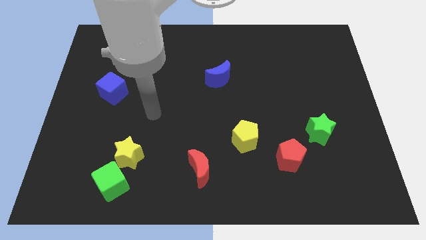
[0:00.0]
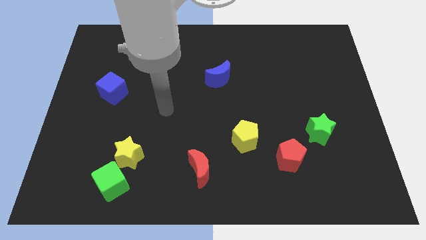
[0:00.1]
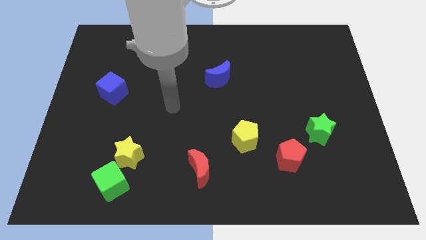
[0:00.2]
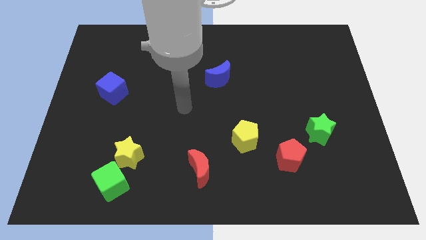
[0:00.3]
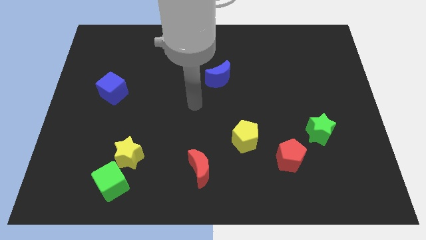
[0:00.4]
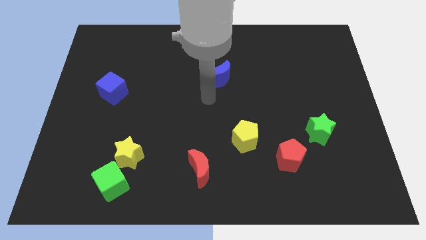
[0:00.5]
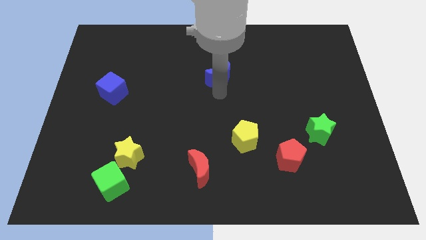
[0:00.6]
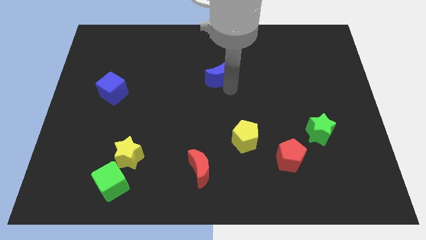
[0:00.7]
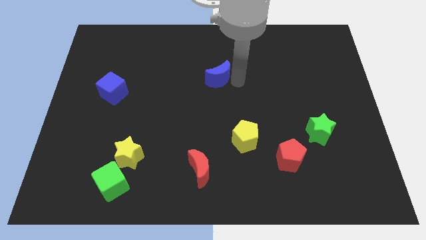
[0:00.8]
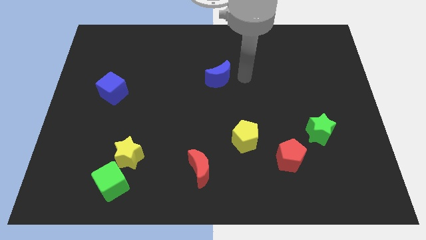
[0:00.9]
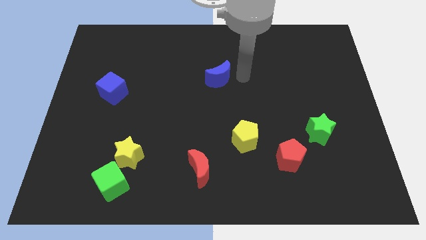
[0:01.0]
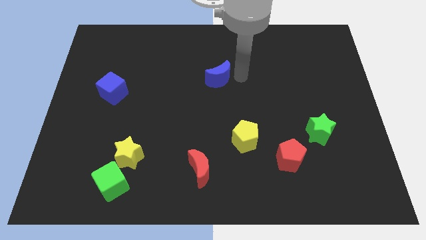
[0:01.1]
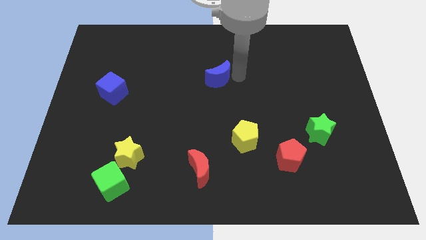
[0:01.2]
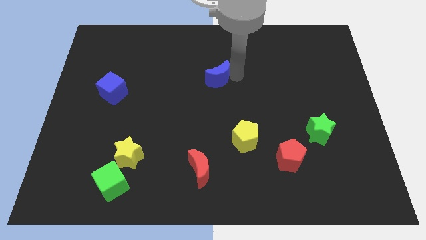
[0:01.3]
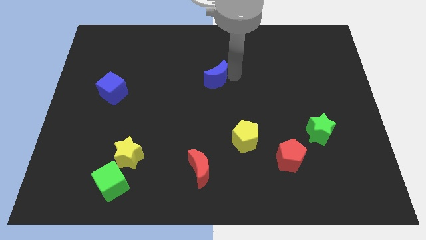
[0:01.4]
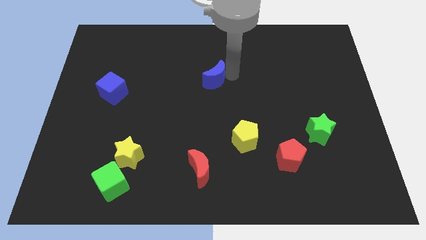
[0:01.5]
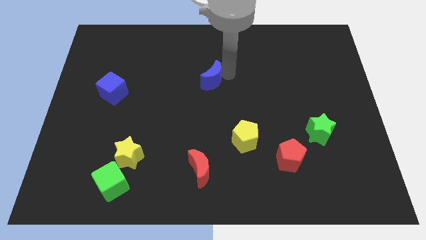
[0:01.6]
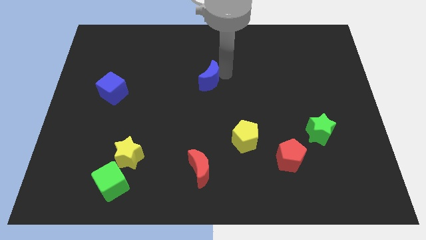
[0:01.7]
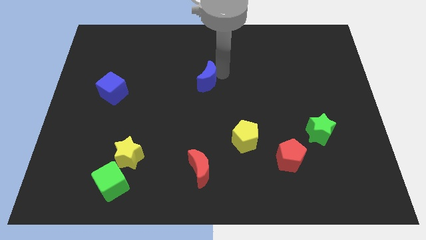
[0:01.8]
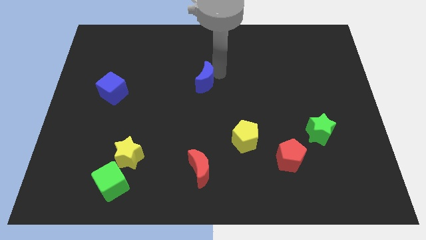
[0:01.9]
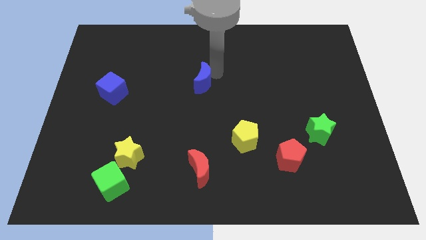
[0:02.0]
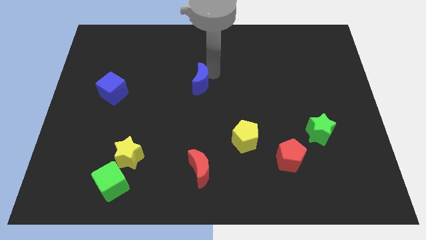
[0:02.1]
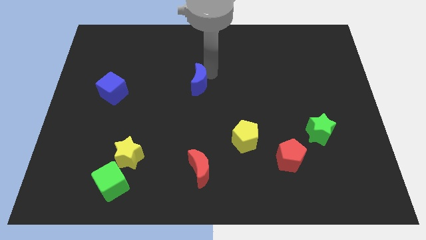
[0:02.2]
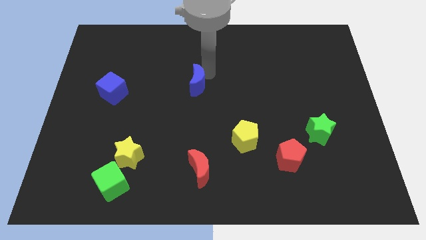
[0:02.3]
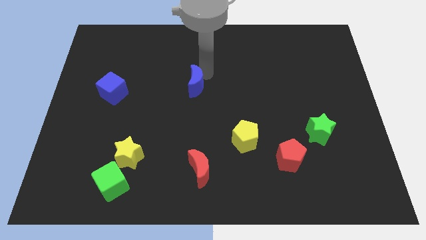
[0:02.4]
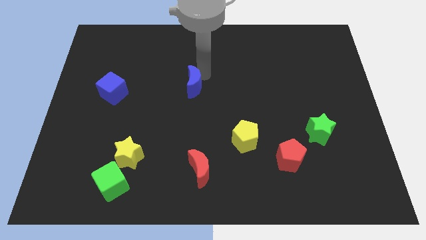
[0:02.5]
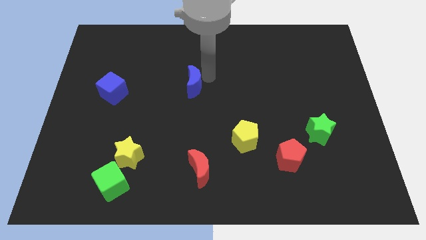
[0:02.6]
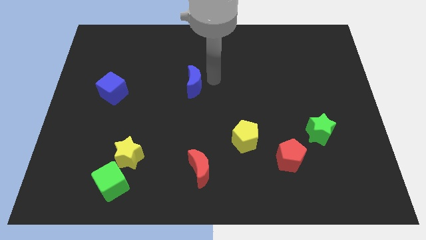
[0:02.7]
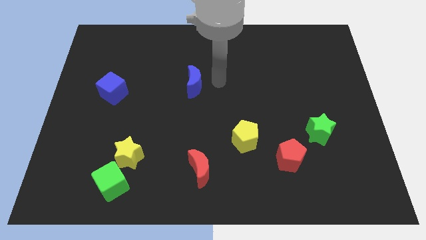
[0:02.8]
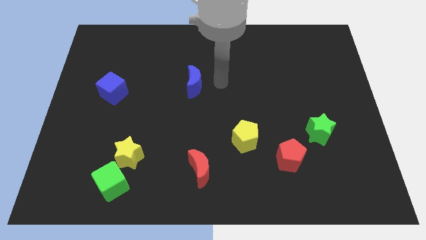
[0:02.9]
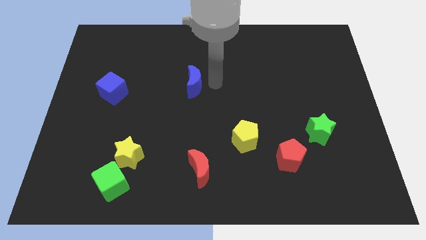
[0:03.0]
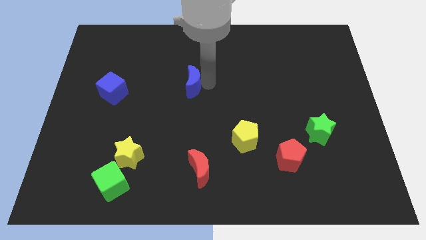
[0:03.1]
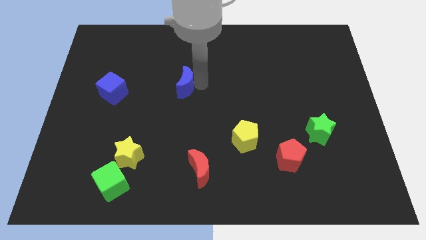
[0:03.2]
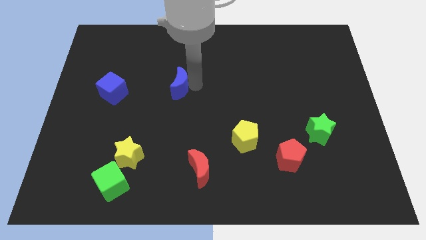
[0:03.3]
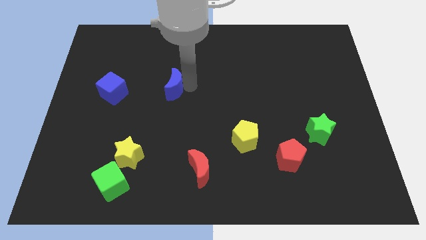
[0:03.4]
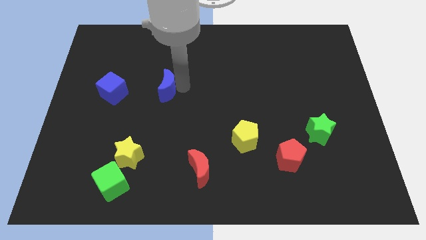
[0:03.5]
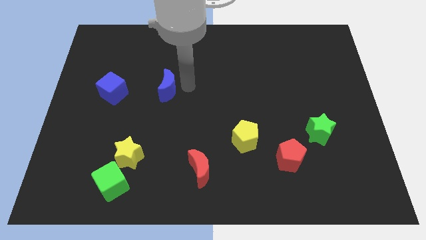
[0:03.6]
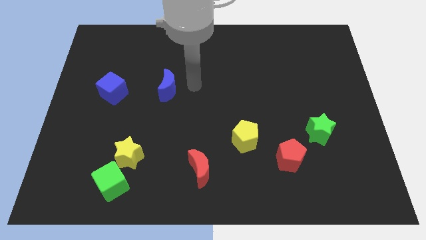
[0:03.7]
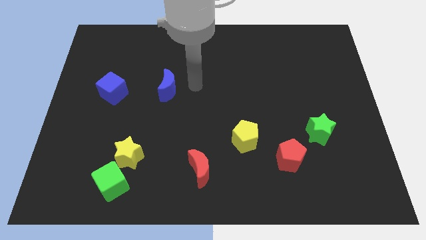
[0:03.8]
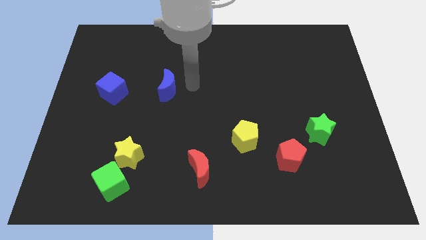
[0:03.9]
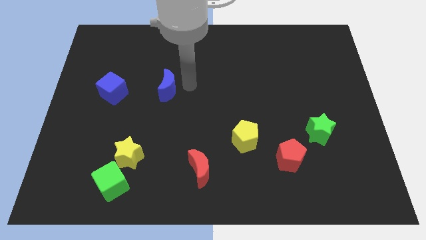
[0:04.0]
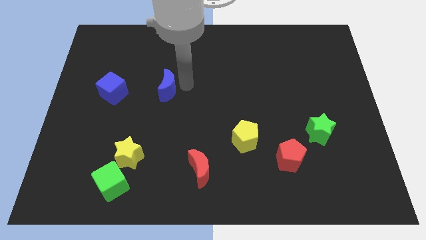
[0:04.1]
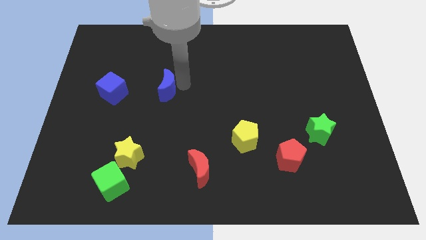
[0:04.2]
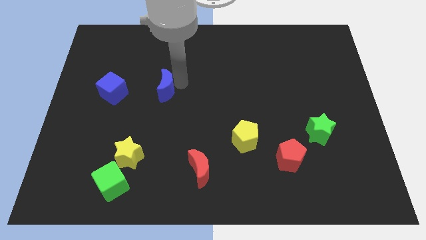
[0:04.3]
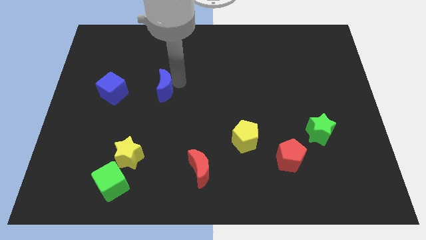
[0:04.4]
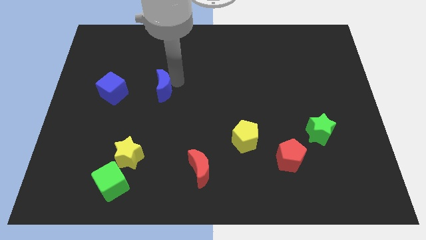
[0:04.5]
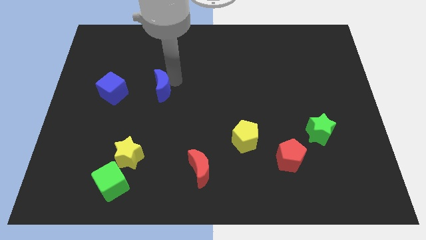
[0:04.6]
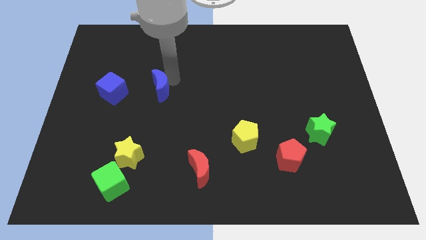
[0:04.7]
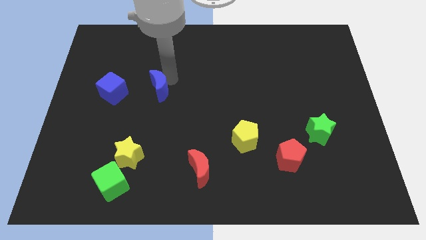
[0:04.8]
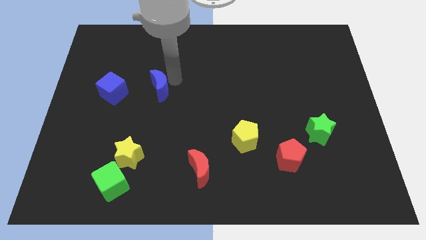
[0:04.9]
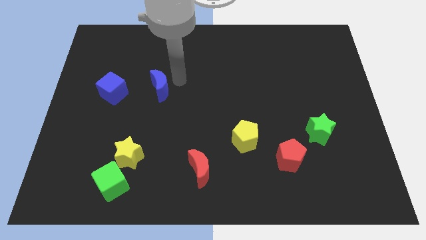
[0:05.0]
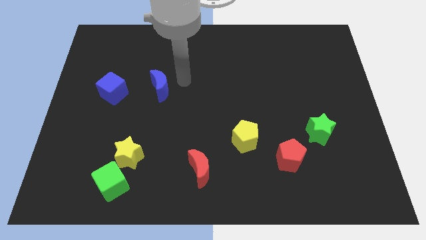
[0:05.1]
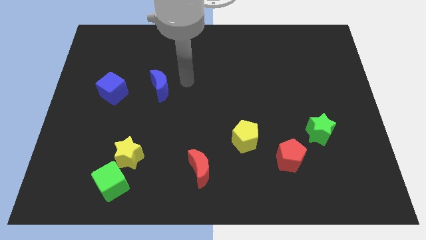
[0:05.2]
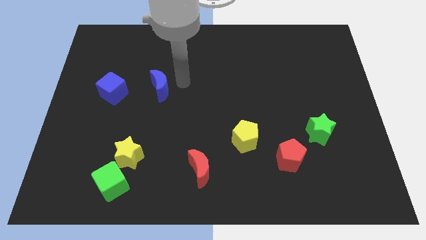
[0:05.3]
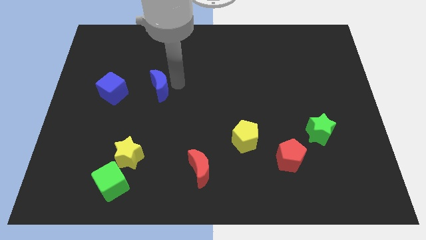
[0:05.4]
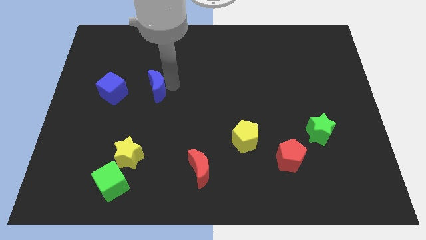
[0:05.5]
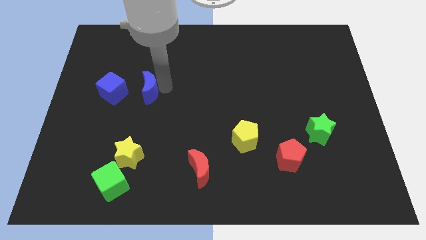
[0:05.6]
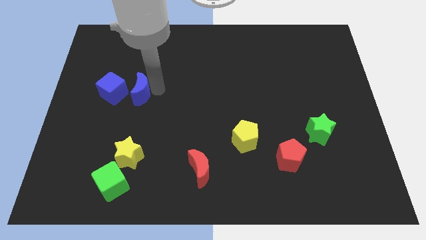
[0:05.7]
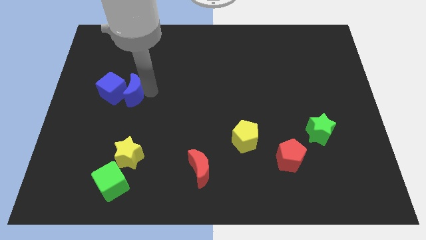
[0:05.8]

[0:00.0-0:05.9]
slide the blue moon towards the blue cube

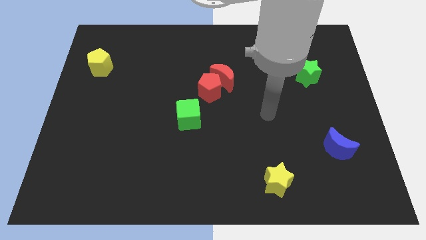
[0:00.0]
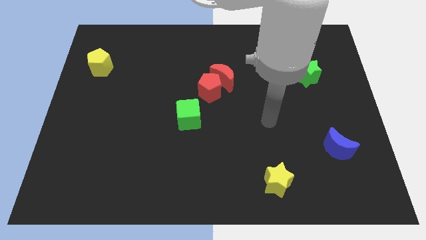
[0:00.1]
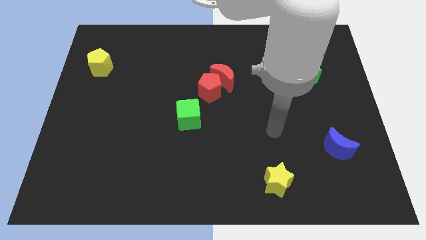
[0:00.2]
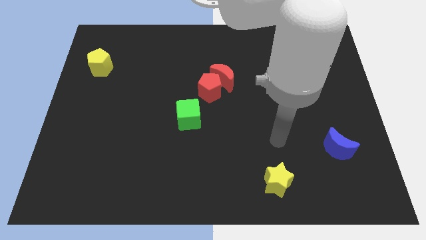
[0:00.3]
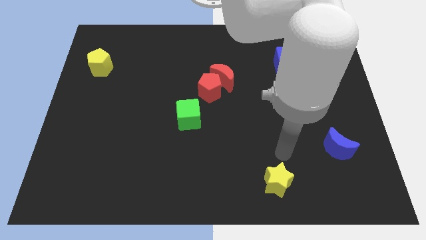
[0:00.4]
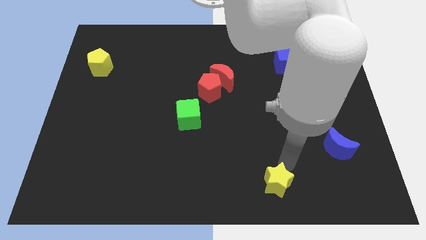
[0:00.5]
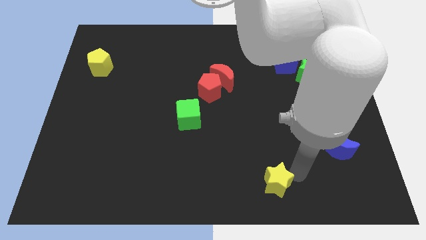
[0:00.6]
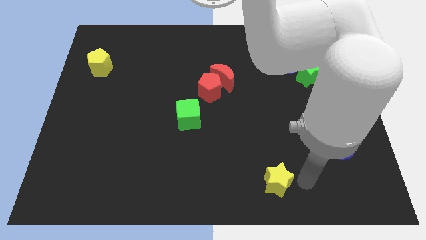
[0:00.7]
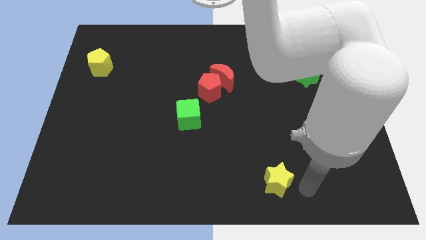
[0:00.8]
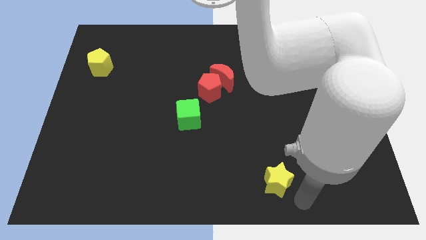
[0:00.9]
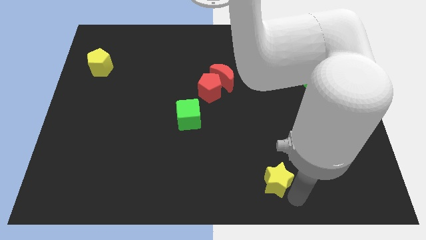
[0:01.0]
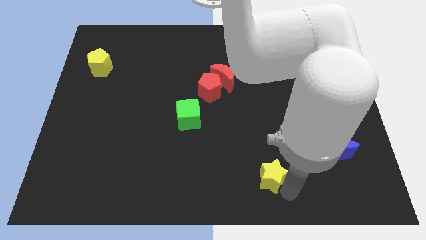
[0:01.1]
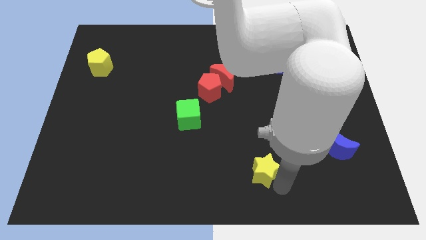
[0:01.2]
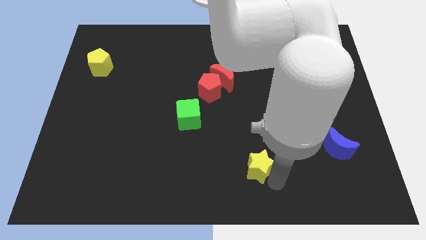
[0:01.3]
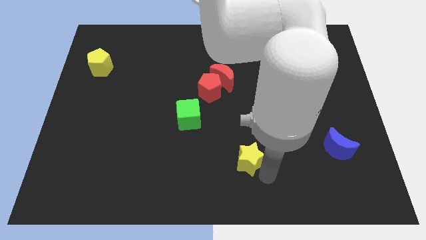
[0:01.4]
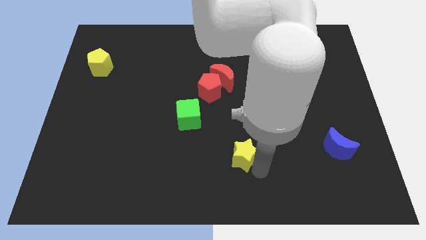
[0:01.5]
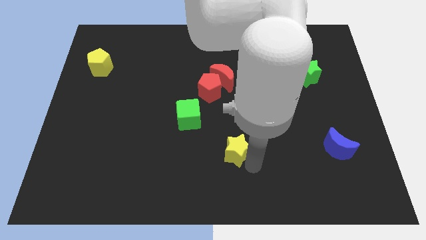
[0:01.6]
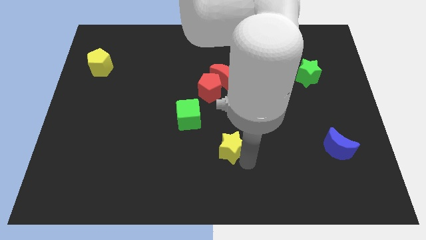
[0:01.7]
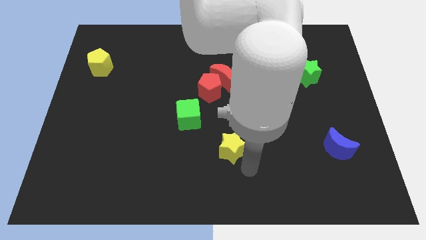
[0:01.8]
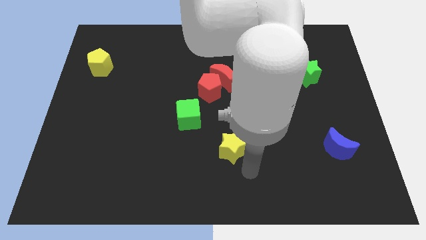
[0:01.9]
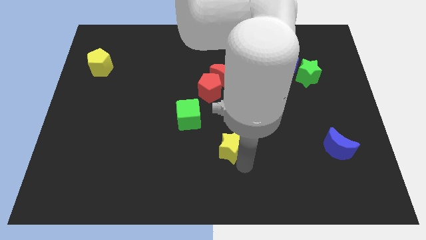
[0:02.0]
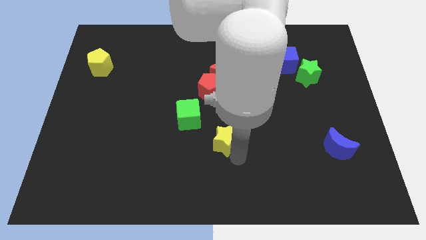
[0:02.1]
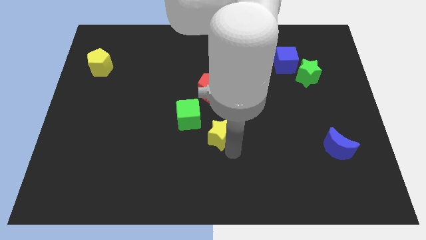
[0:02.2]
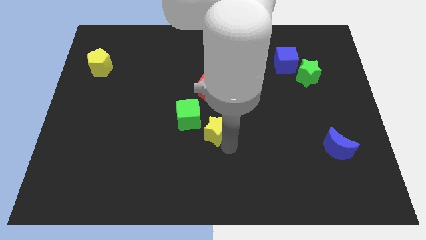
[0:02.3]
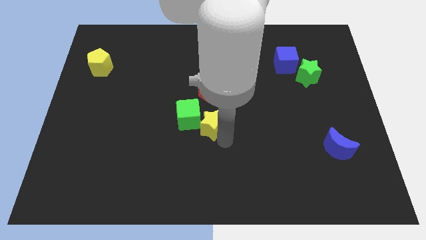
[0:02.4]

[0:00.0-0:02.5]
slide the yellow star next to the green cube

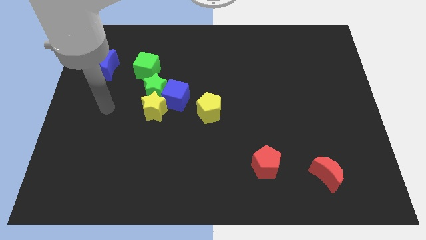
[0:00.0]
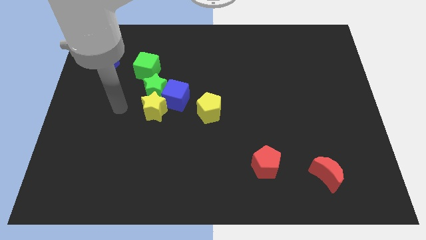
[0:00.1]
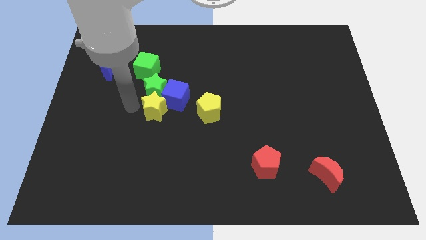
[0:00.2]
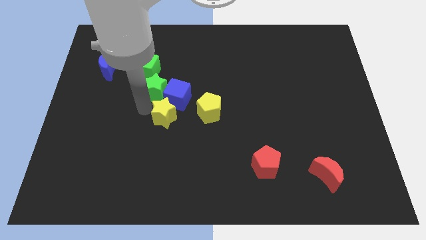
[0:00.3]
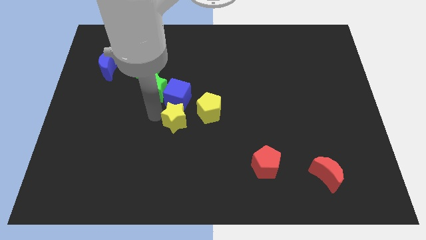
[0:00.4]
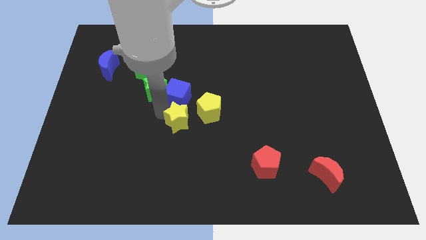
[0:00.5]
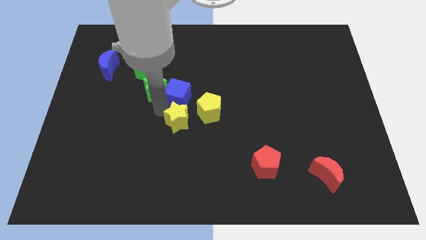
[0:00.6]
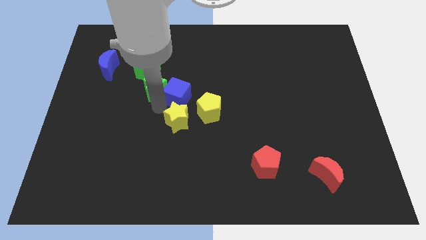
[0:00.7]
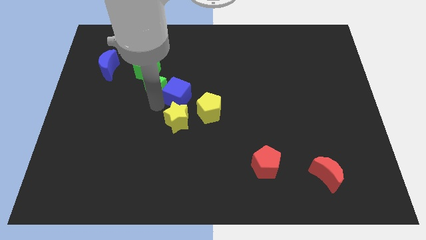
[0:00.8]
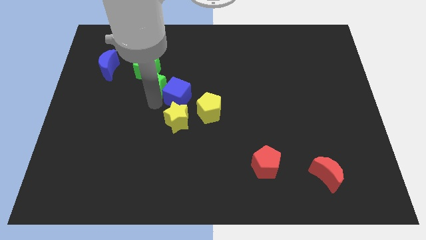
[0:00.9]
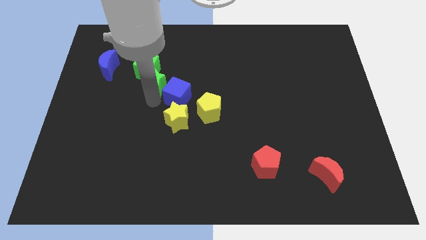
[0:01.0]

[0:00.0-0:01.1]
move the green star close to the green cube
